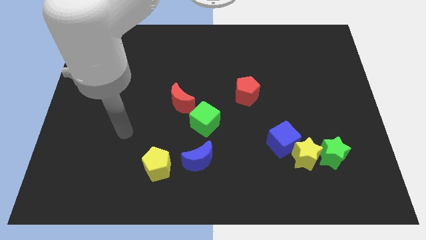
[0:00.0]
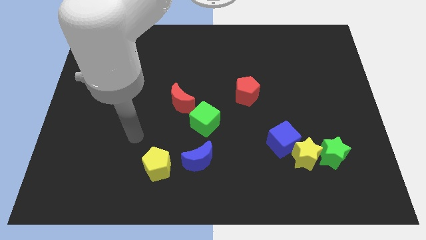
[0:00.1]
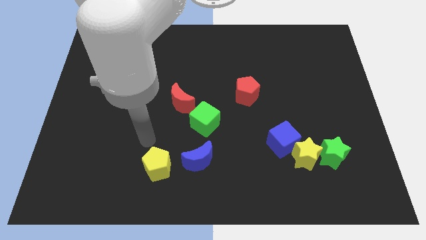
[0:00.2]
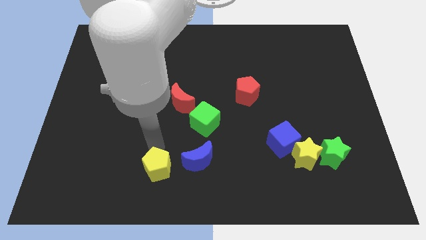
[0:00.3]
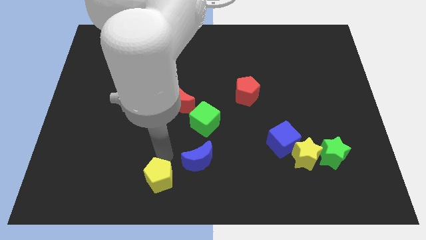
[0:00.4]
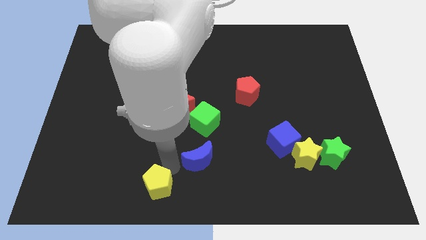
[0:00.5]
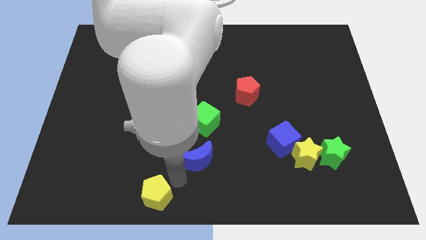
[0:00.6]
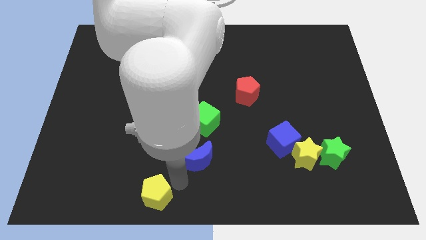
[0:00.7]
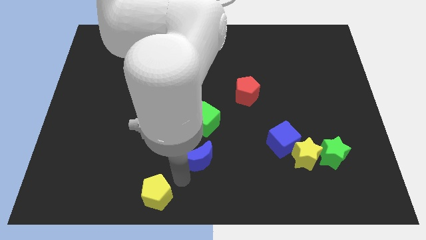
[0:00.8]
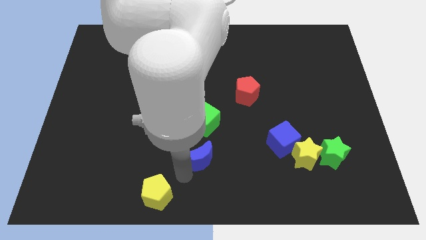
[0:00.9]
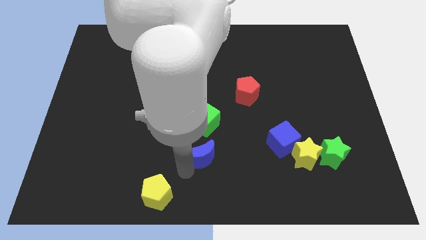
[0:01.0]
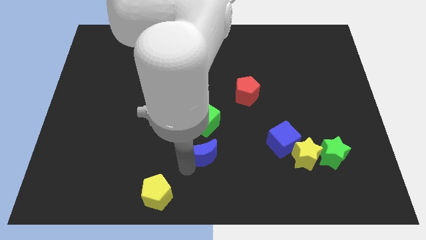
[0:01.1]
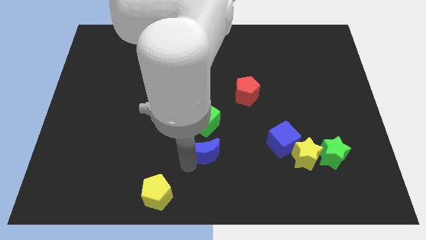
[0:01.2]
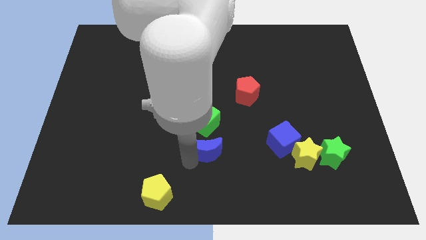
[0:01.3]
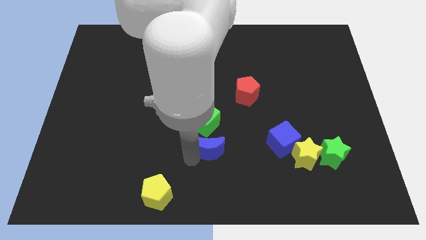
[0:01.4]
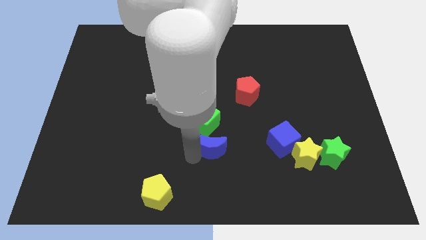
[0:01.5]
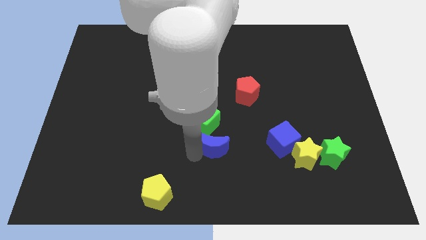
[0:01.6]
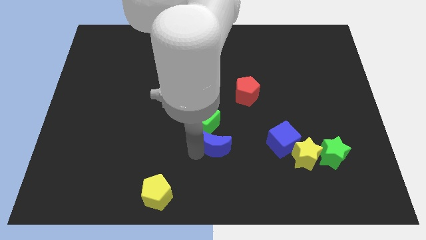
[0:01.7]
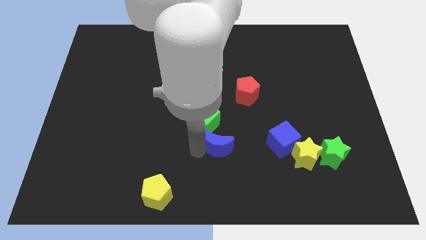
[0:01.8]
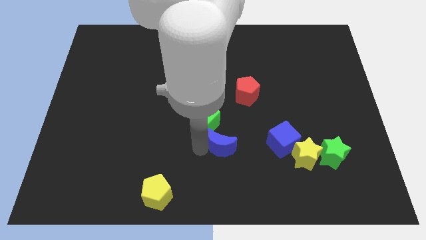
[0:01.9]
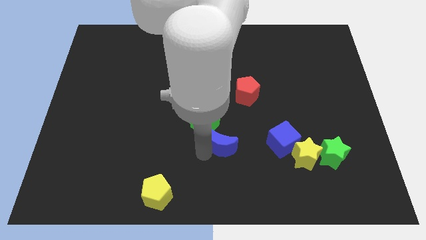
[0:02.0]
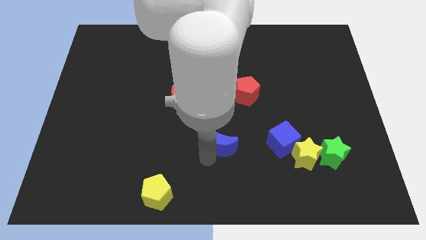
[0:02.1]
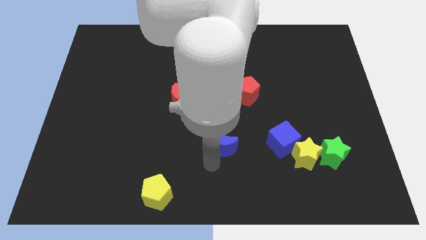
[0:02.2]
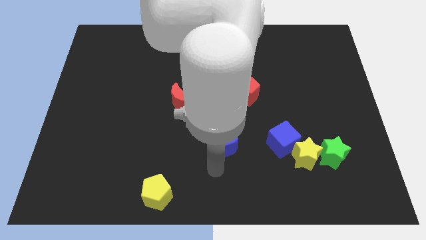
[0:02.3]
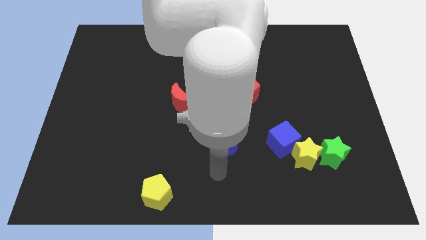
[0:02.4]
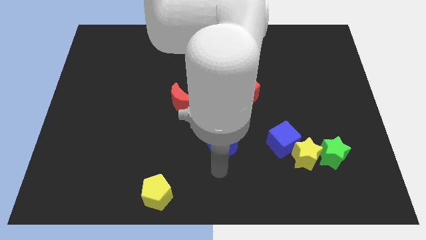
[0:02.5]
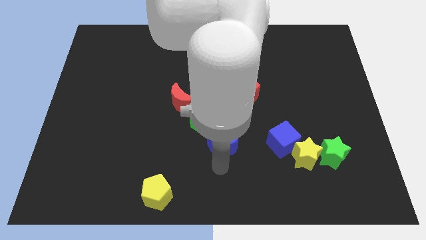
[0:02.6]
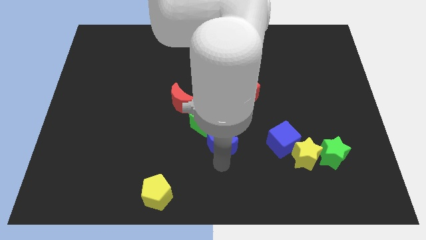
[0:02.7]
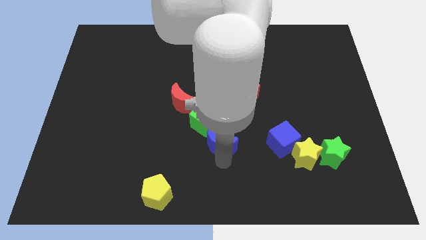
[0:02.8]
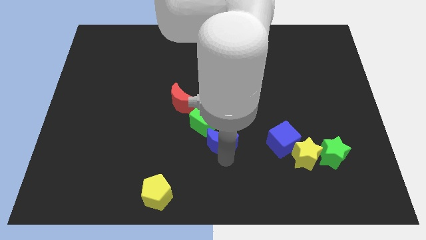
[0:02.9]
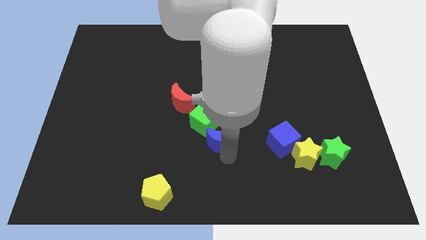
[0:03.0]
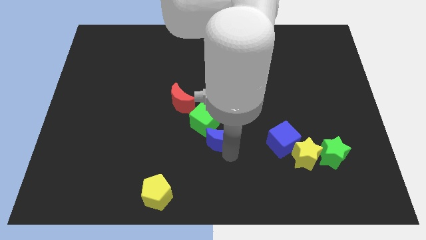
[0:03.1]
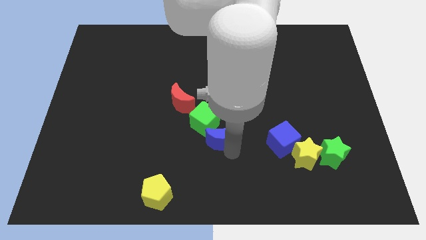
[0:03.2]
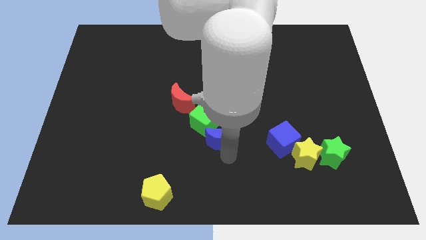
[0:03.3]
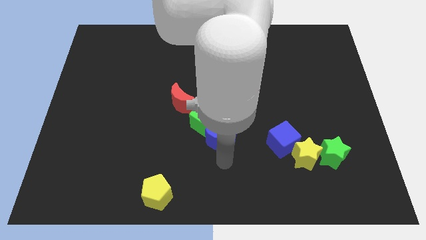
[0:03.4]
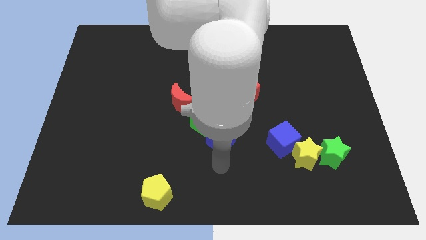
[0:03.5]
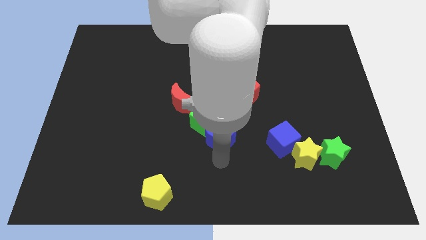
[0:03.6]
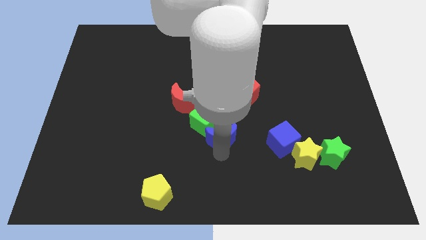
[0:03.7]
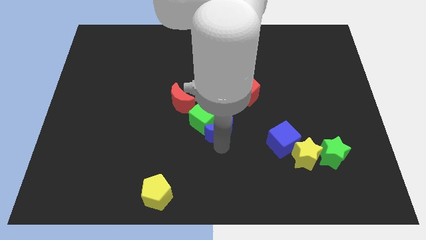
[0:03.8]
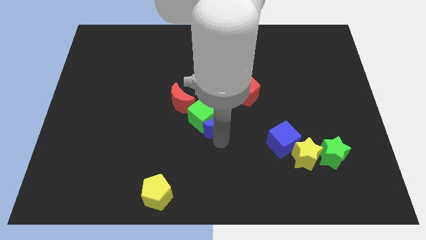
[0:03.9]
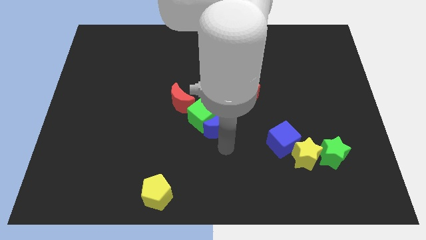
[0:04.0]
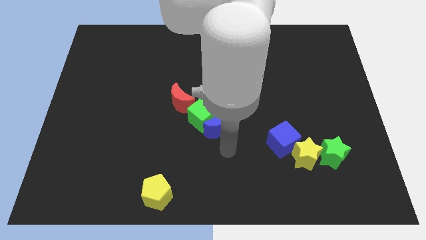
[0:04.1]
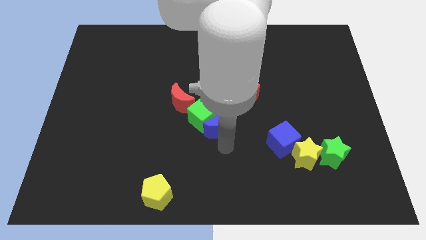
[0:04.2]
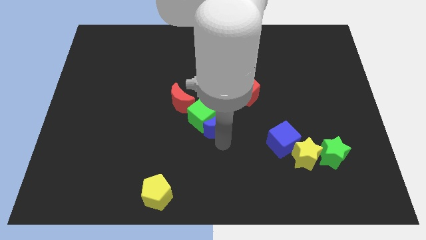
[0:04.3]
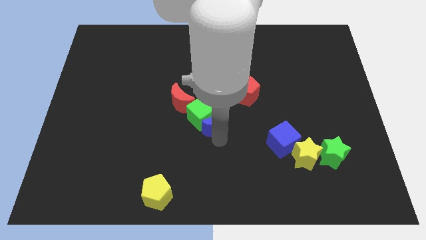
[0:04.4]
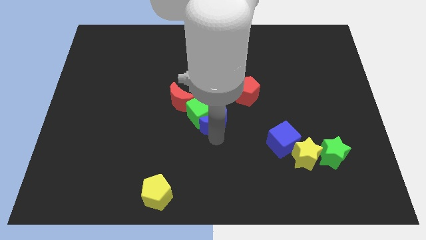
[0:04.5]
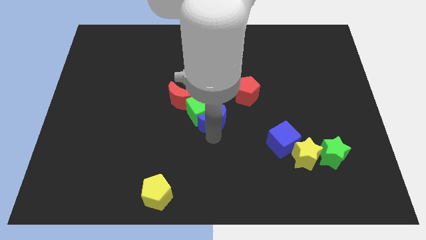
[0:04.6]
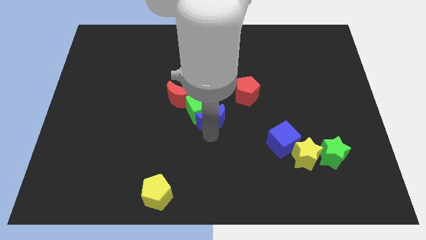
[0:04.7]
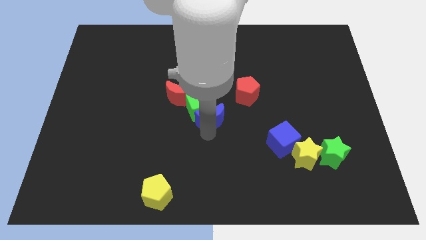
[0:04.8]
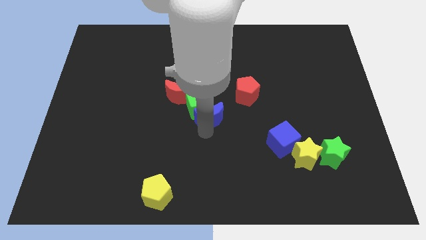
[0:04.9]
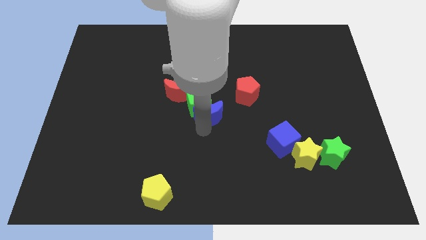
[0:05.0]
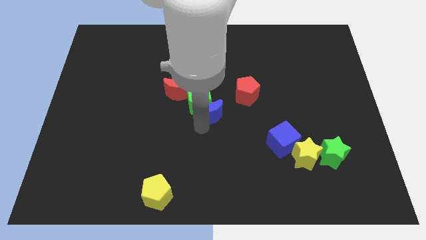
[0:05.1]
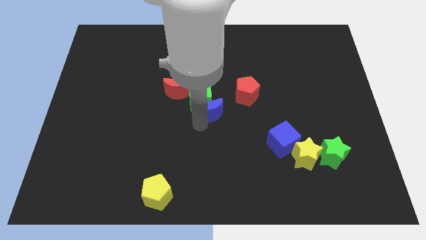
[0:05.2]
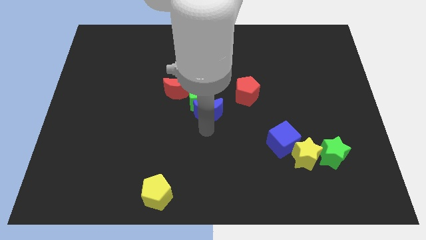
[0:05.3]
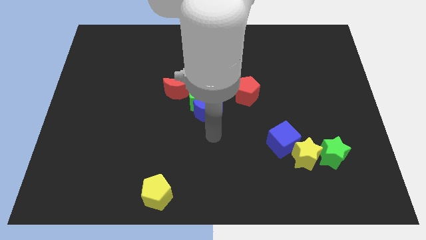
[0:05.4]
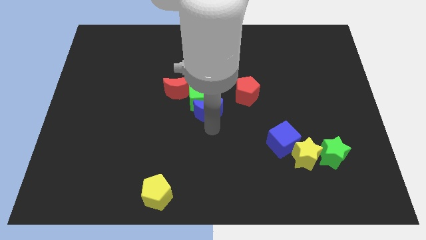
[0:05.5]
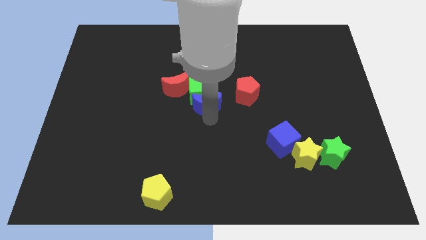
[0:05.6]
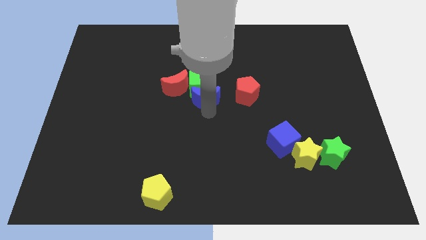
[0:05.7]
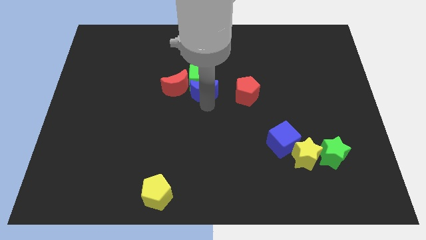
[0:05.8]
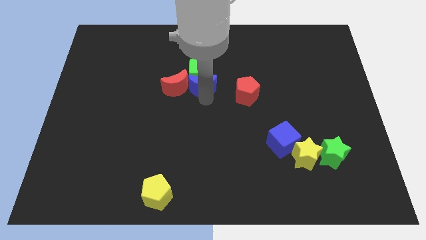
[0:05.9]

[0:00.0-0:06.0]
slide the blue moon to the top right side of the red moon

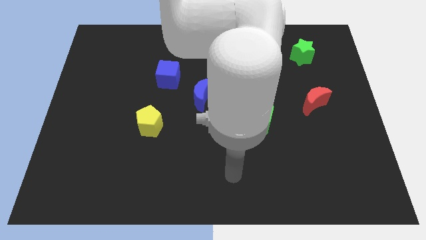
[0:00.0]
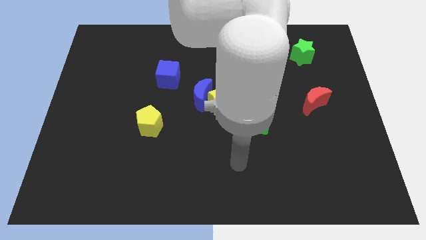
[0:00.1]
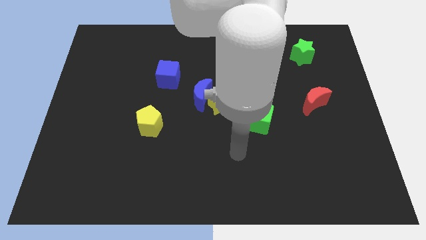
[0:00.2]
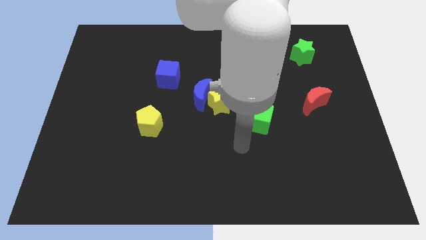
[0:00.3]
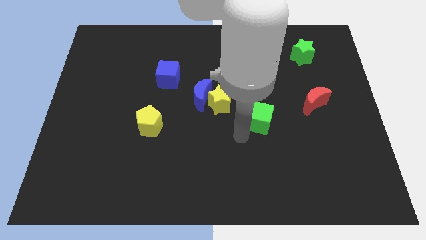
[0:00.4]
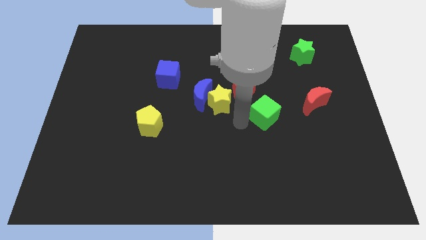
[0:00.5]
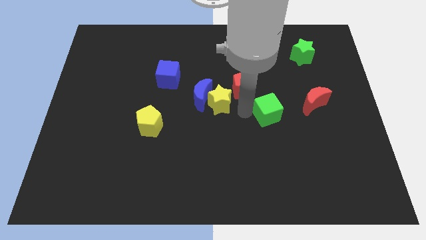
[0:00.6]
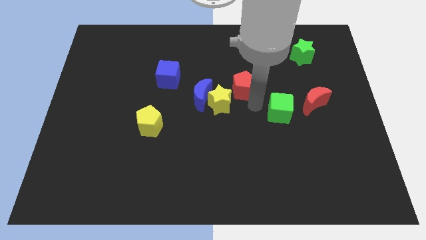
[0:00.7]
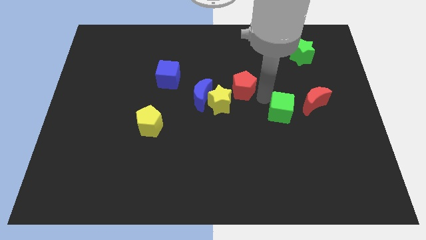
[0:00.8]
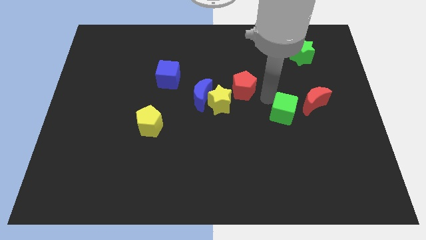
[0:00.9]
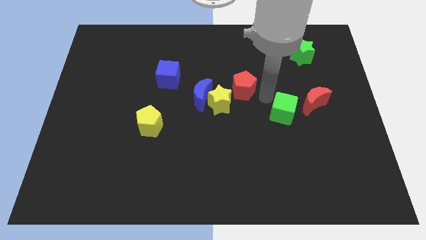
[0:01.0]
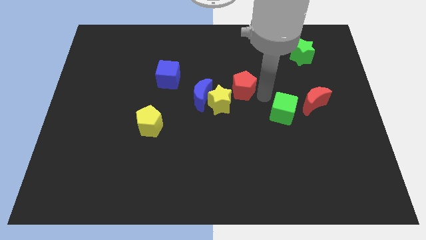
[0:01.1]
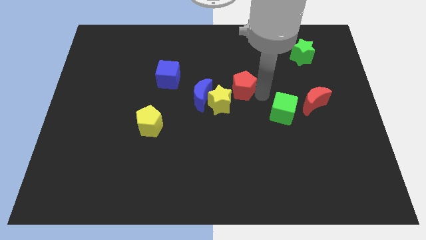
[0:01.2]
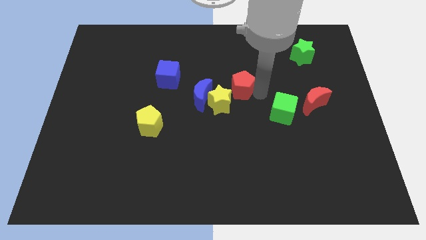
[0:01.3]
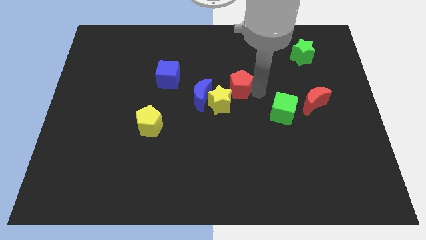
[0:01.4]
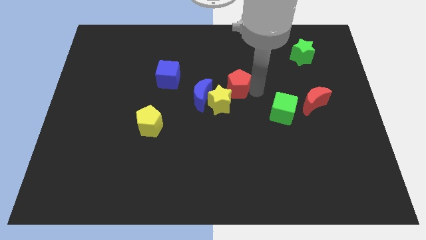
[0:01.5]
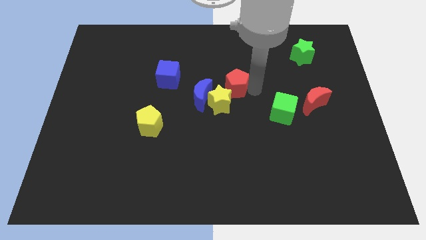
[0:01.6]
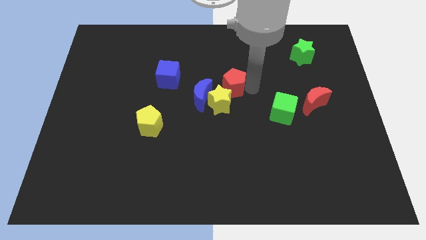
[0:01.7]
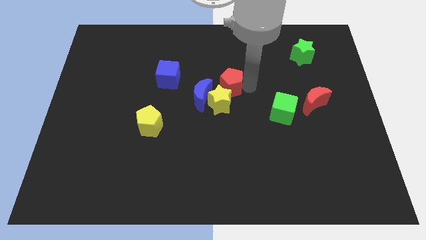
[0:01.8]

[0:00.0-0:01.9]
put the red pentagon right of the blue cube
